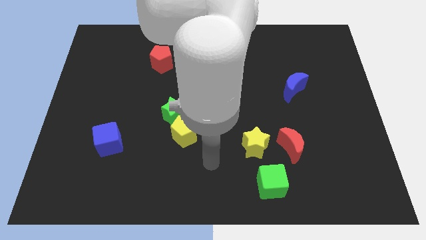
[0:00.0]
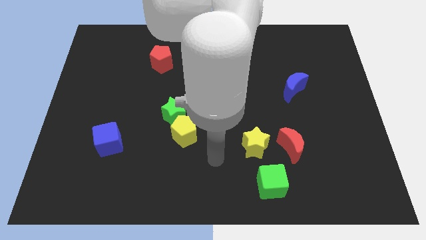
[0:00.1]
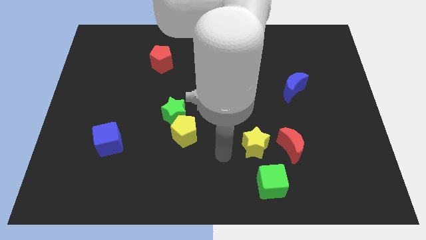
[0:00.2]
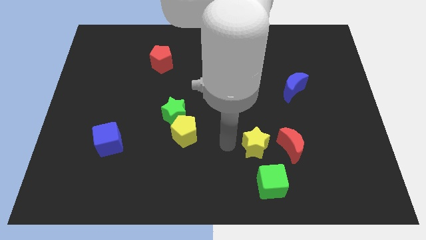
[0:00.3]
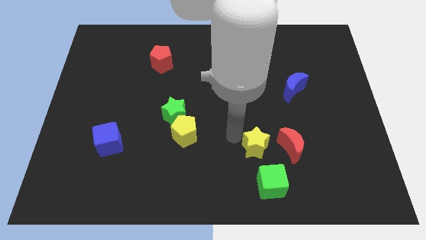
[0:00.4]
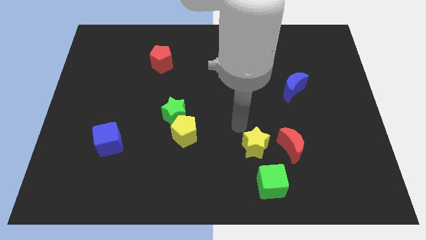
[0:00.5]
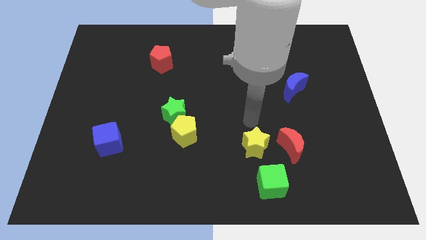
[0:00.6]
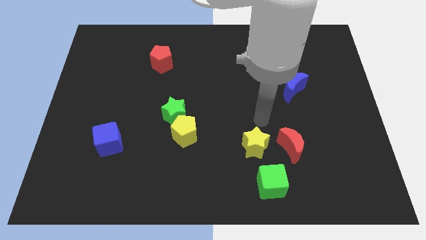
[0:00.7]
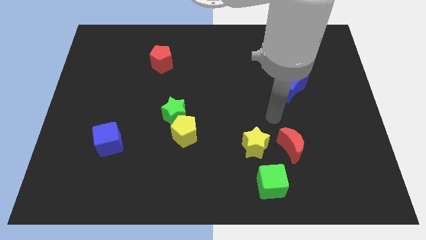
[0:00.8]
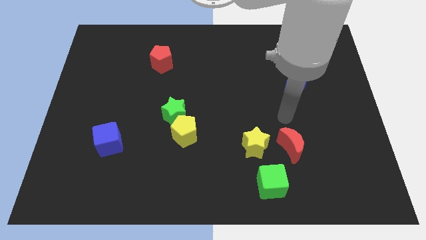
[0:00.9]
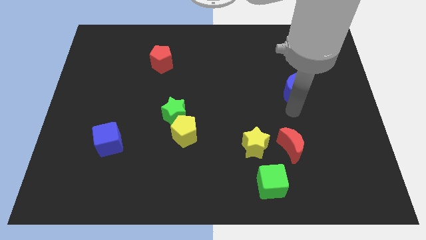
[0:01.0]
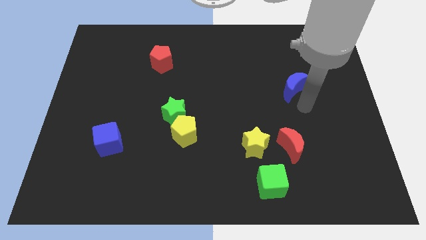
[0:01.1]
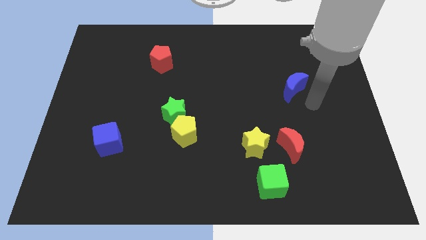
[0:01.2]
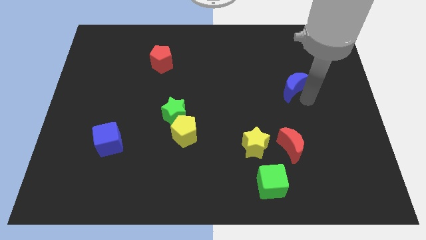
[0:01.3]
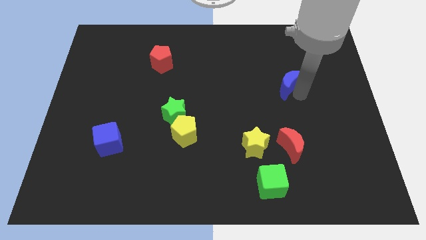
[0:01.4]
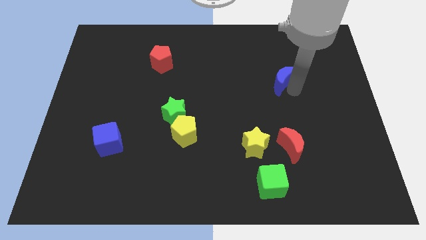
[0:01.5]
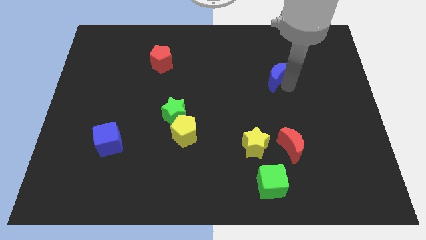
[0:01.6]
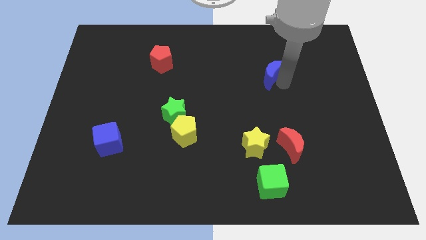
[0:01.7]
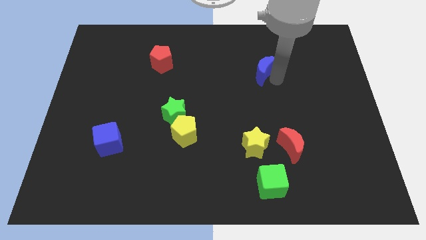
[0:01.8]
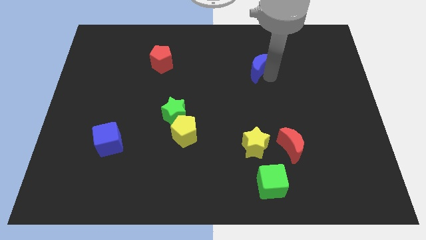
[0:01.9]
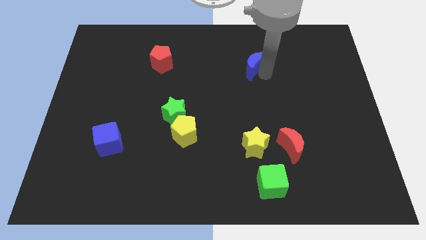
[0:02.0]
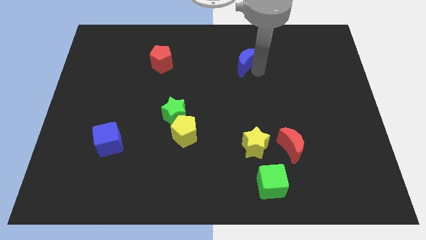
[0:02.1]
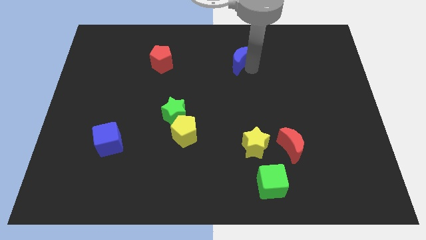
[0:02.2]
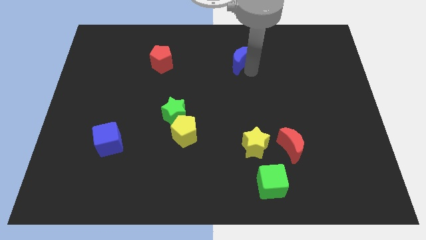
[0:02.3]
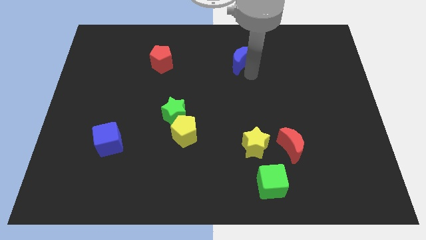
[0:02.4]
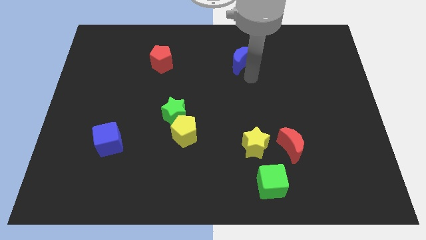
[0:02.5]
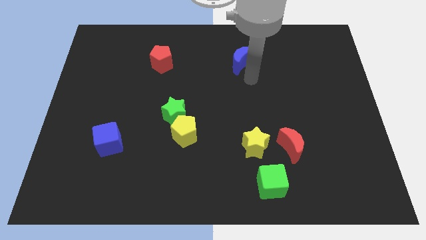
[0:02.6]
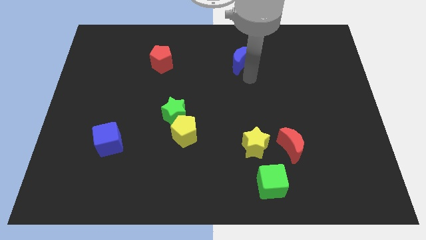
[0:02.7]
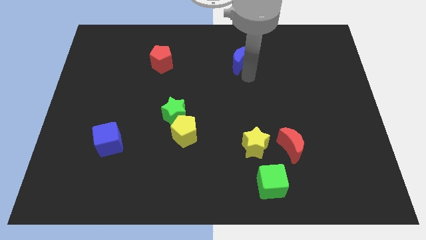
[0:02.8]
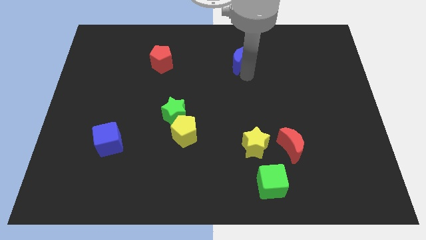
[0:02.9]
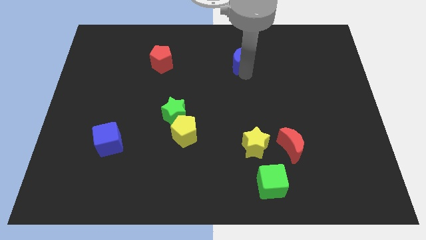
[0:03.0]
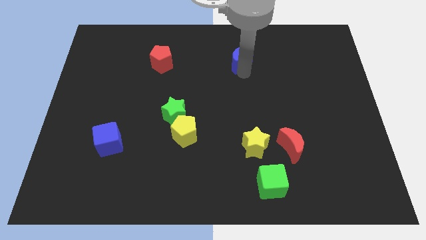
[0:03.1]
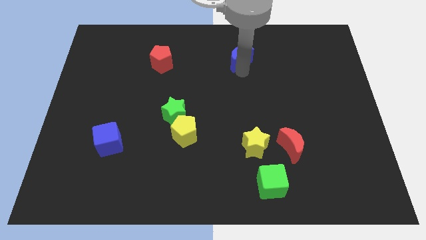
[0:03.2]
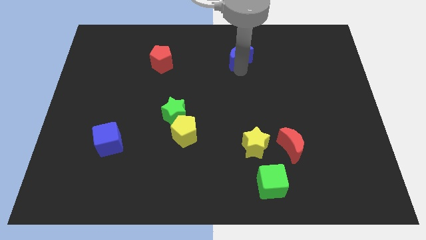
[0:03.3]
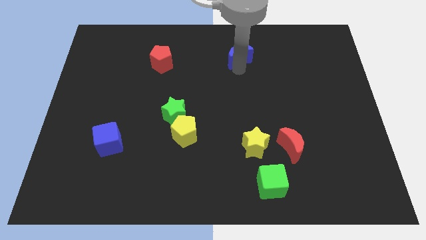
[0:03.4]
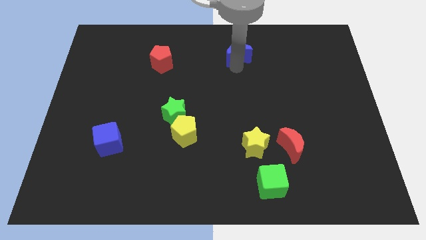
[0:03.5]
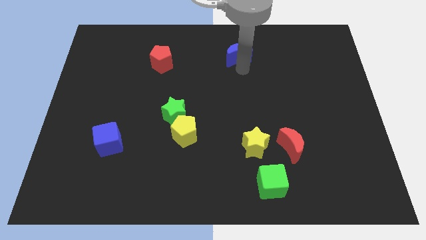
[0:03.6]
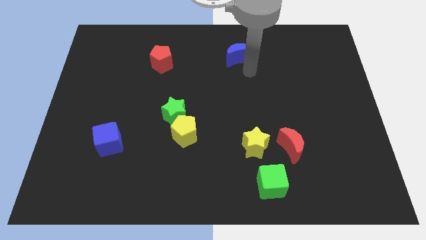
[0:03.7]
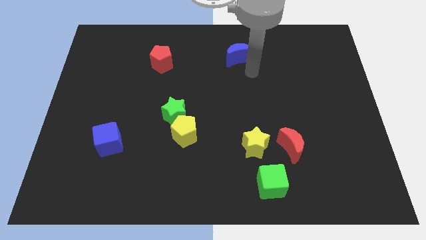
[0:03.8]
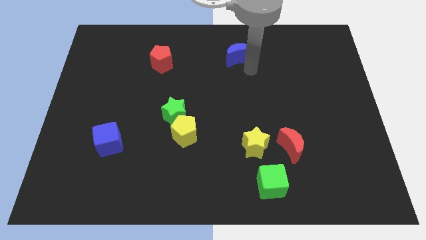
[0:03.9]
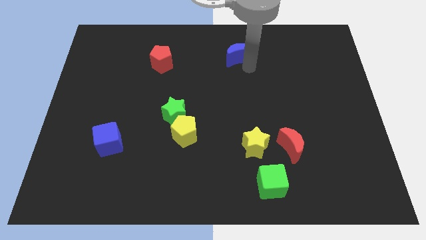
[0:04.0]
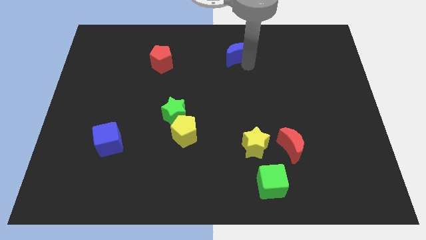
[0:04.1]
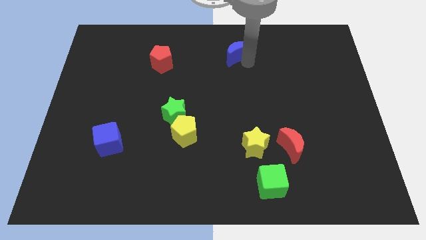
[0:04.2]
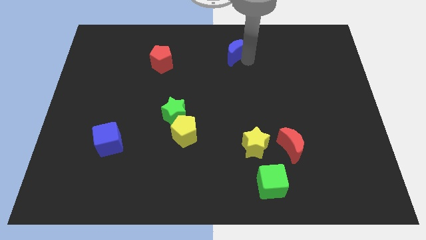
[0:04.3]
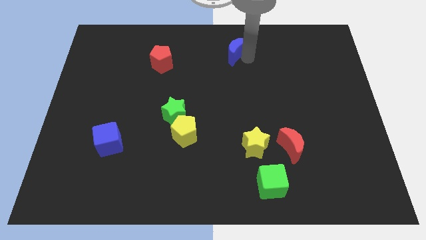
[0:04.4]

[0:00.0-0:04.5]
put the blue moon to the top

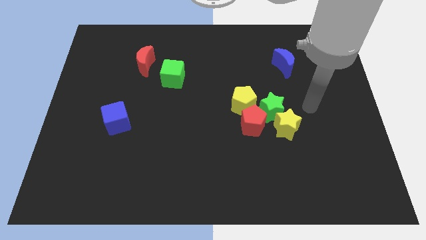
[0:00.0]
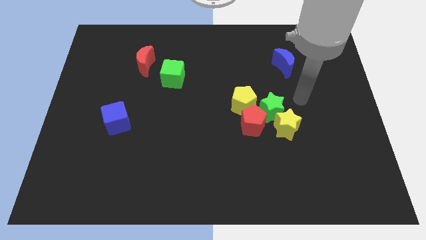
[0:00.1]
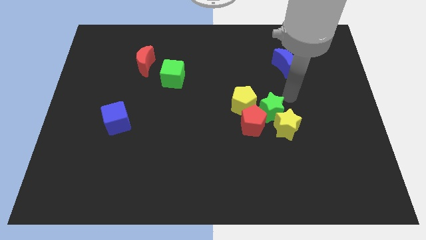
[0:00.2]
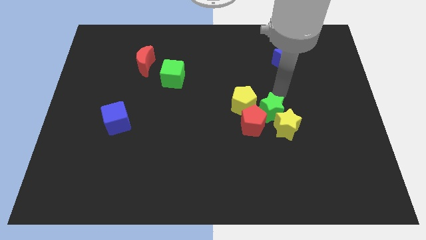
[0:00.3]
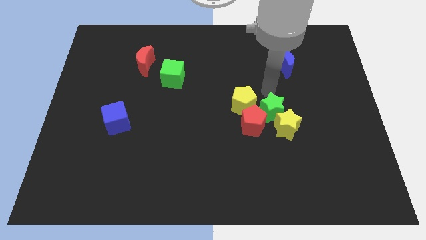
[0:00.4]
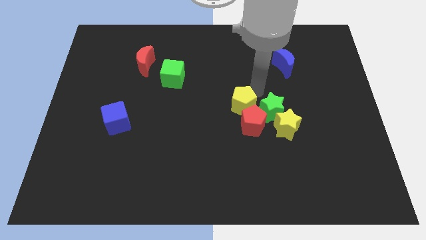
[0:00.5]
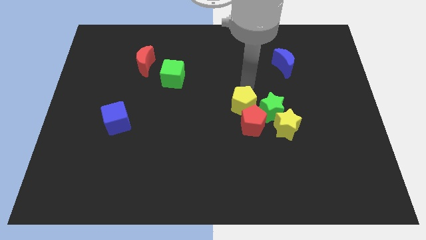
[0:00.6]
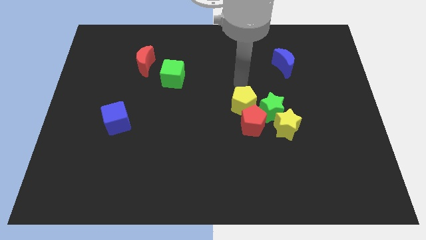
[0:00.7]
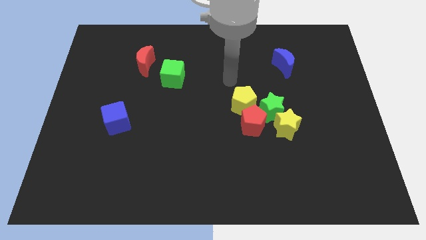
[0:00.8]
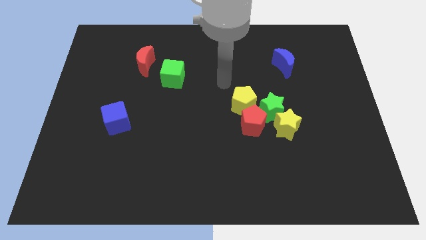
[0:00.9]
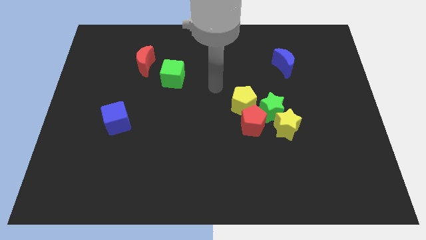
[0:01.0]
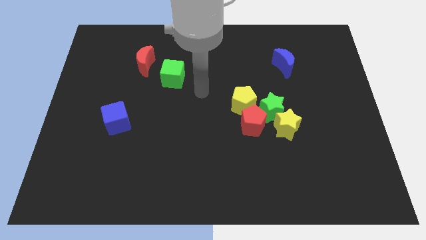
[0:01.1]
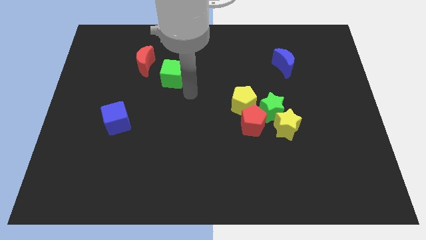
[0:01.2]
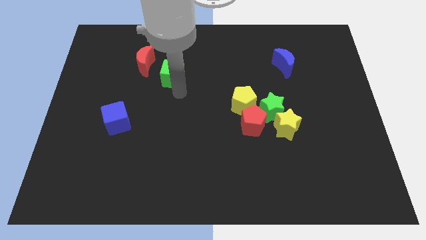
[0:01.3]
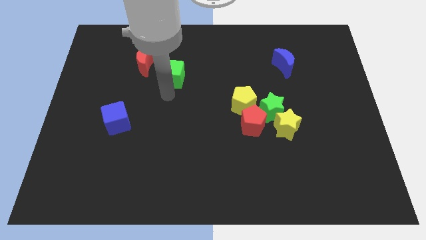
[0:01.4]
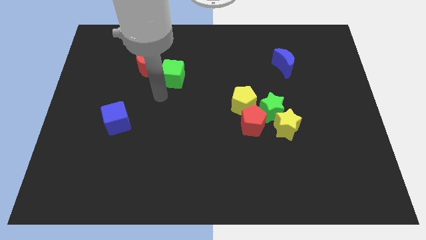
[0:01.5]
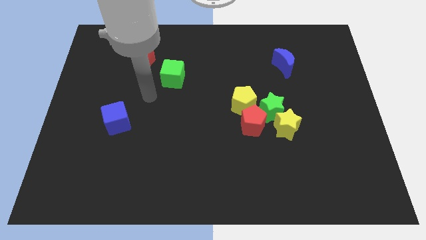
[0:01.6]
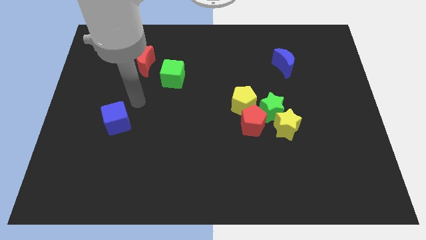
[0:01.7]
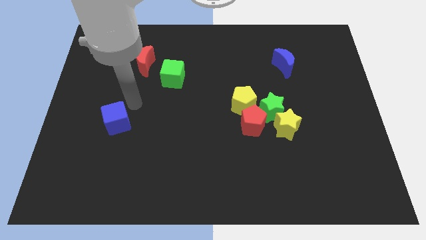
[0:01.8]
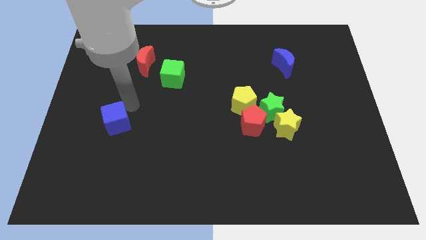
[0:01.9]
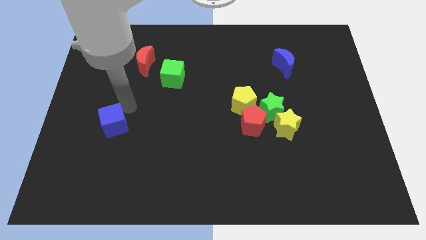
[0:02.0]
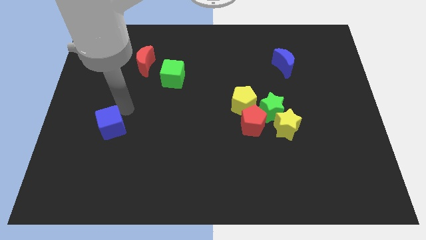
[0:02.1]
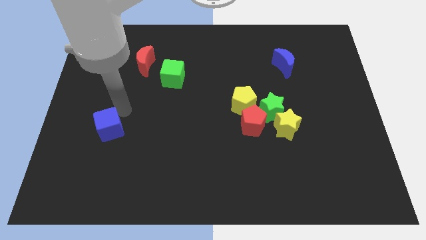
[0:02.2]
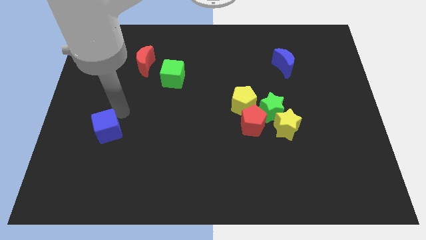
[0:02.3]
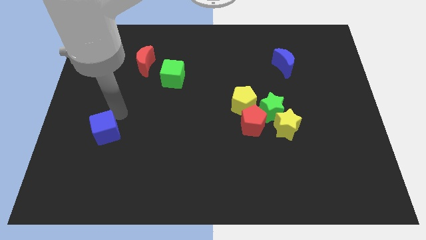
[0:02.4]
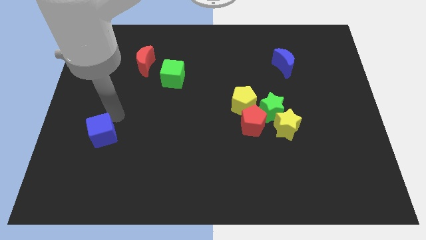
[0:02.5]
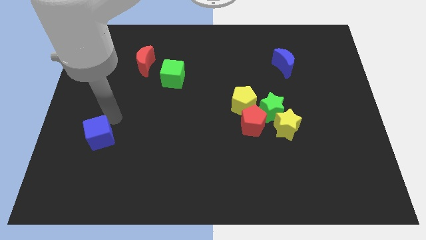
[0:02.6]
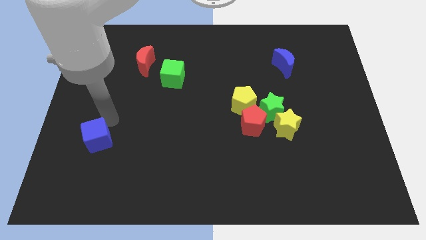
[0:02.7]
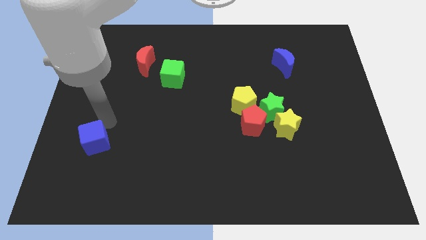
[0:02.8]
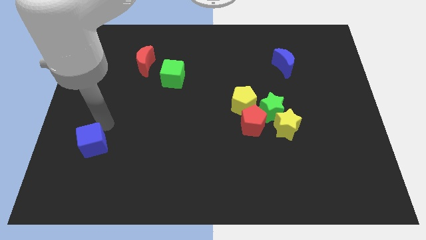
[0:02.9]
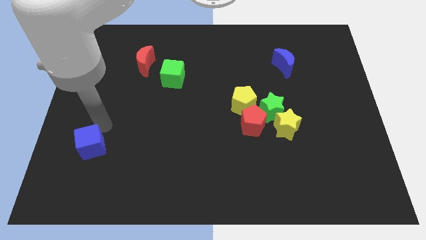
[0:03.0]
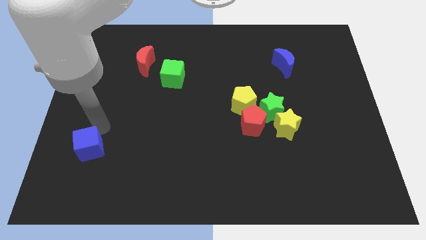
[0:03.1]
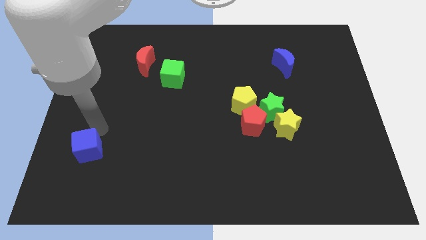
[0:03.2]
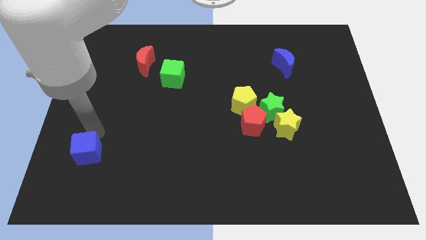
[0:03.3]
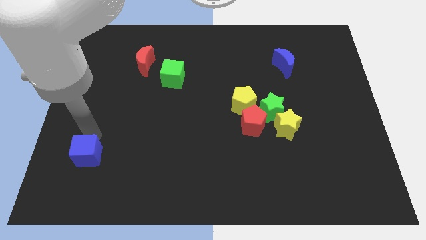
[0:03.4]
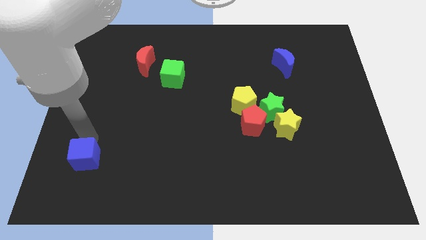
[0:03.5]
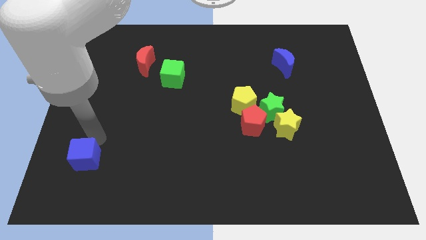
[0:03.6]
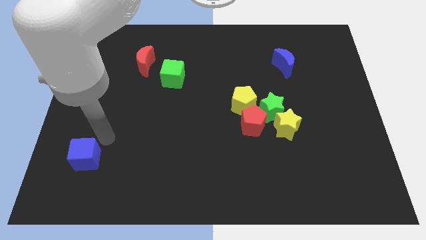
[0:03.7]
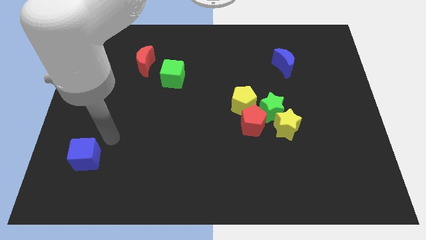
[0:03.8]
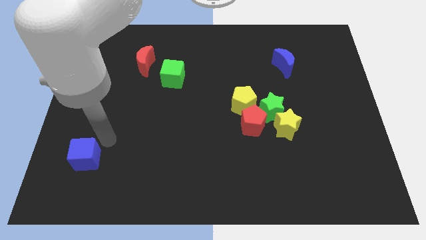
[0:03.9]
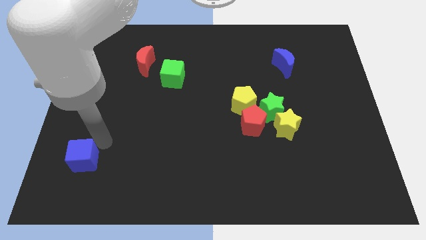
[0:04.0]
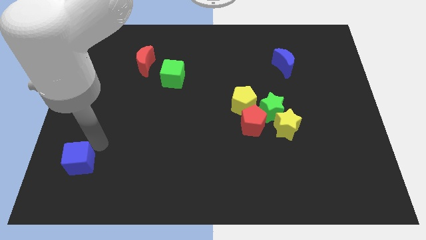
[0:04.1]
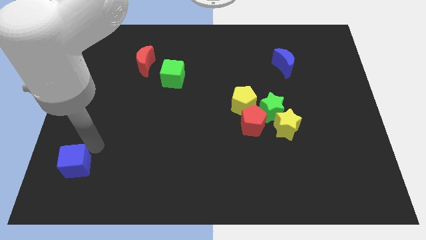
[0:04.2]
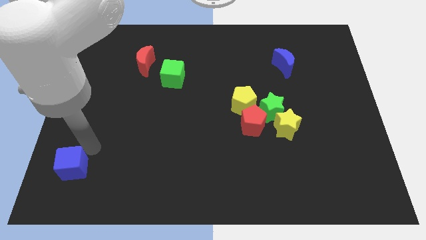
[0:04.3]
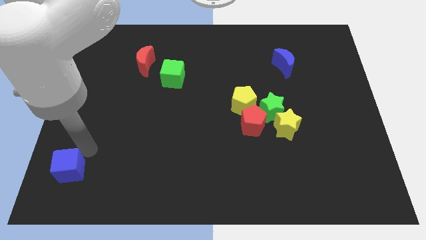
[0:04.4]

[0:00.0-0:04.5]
slide the blue cube to the bottom left of the board
